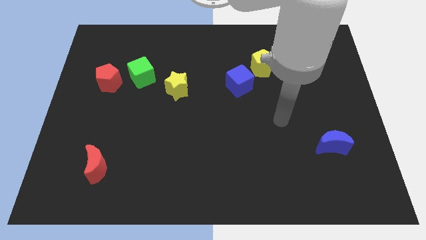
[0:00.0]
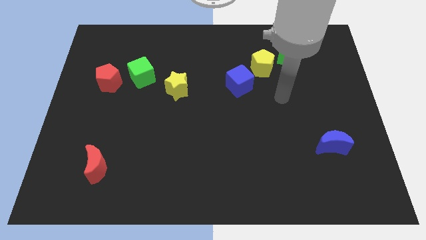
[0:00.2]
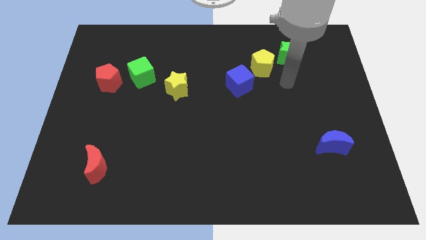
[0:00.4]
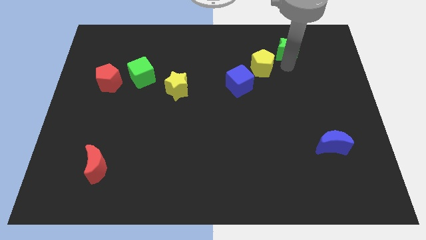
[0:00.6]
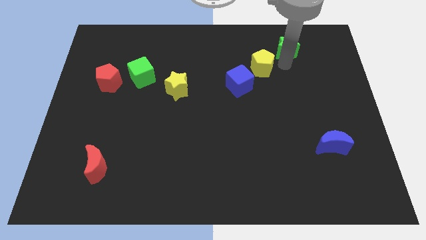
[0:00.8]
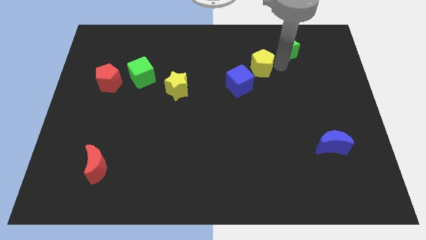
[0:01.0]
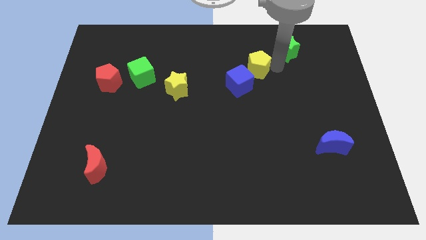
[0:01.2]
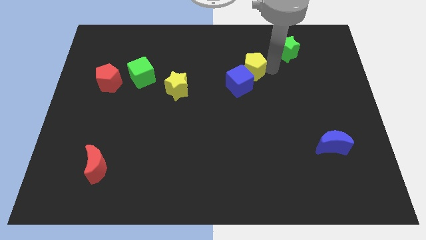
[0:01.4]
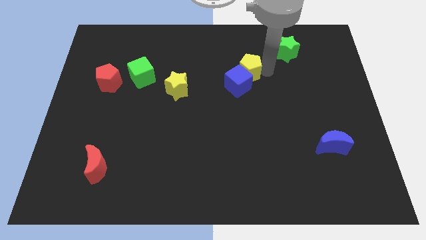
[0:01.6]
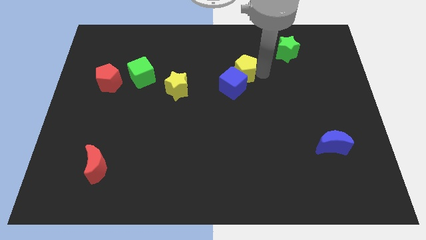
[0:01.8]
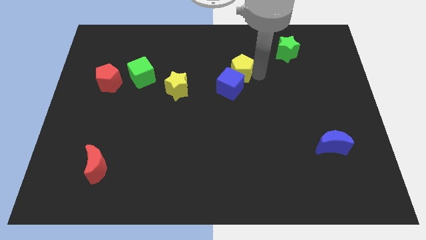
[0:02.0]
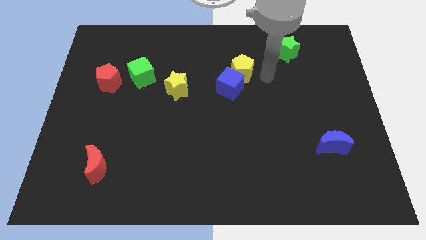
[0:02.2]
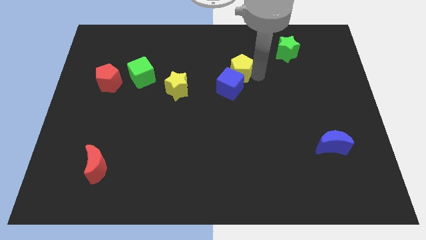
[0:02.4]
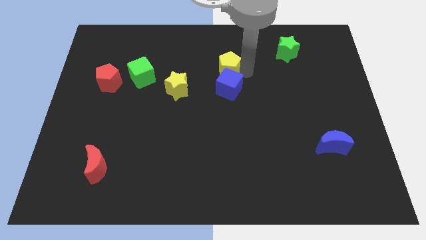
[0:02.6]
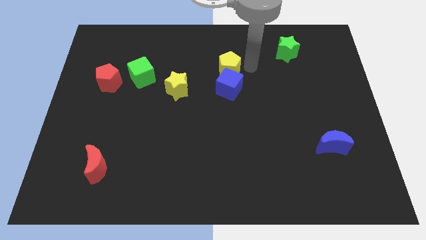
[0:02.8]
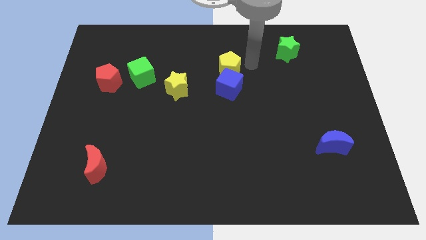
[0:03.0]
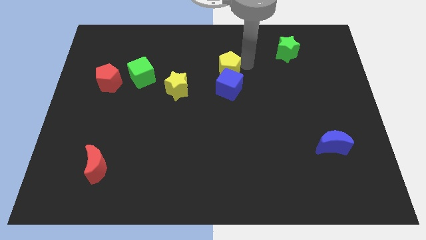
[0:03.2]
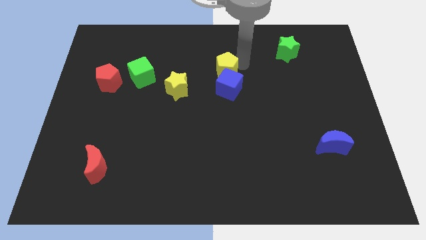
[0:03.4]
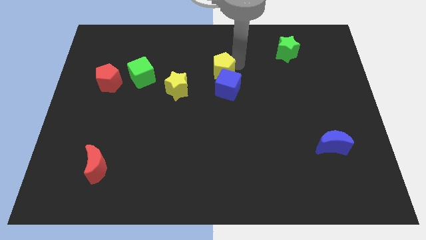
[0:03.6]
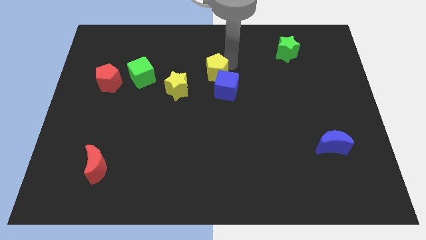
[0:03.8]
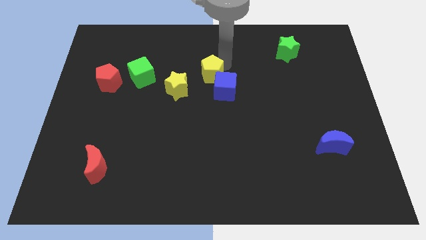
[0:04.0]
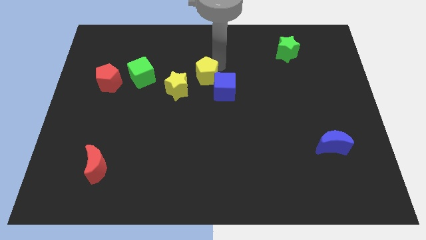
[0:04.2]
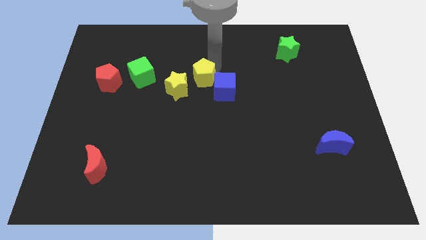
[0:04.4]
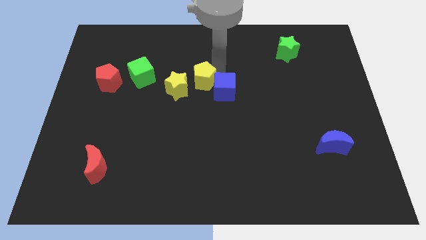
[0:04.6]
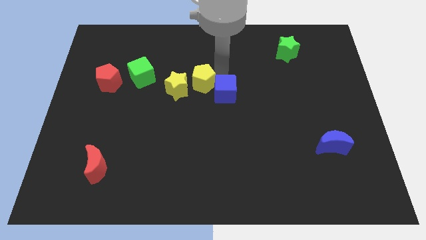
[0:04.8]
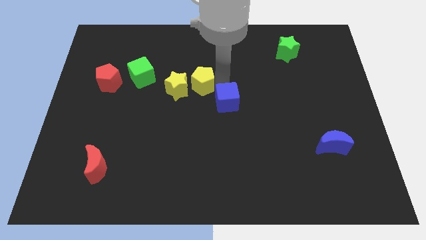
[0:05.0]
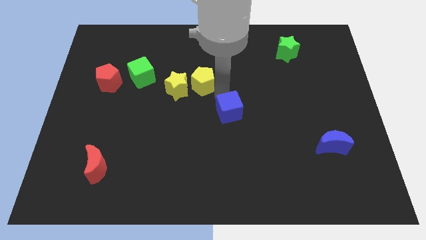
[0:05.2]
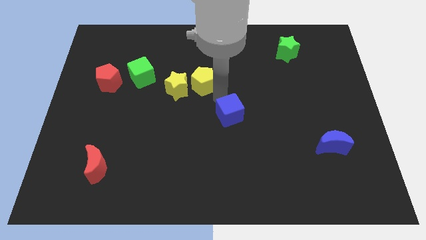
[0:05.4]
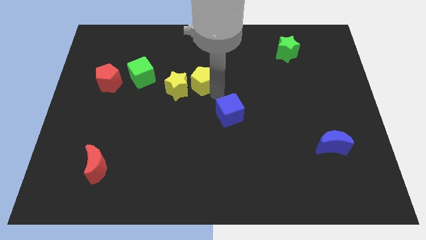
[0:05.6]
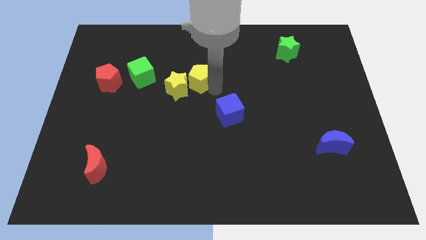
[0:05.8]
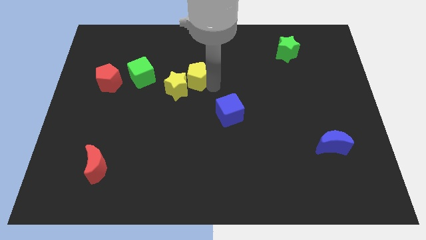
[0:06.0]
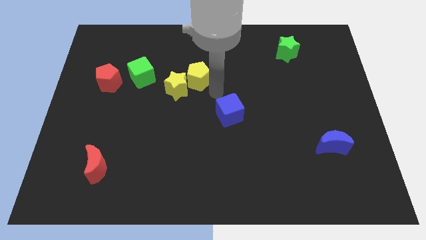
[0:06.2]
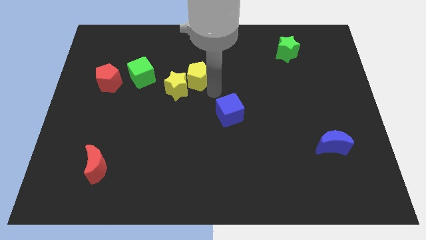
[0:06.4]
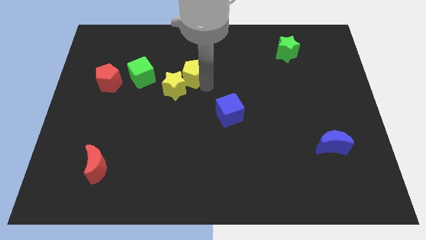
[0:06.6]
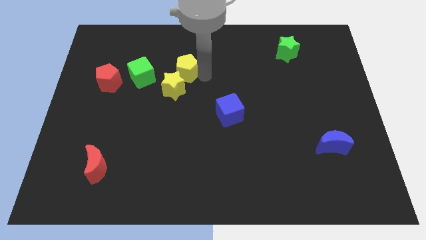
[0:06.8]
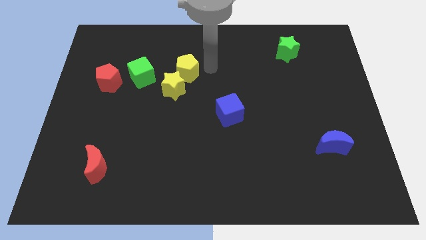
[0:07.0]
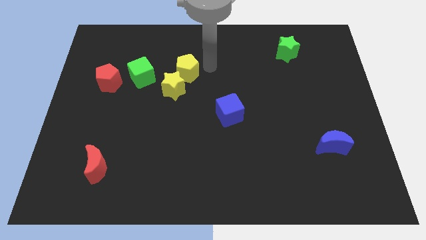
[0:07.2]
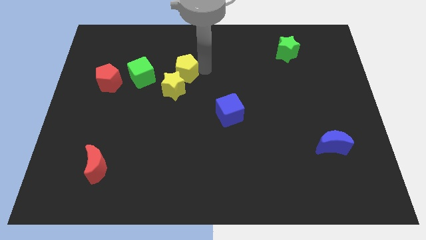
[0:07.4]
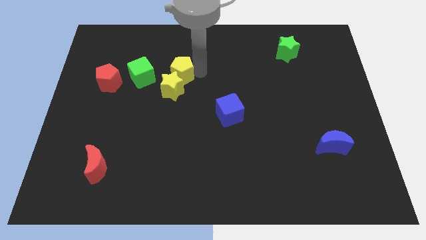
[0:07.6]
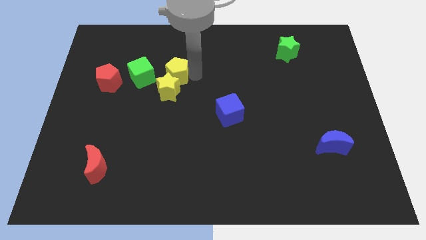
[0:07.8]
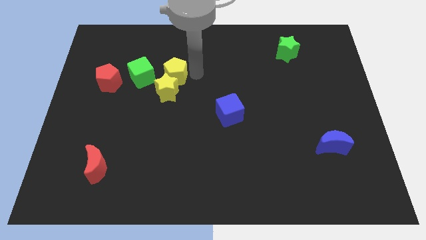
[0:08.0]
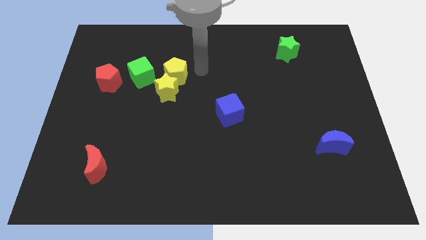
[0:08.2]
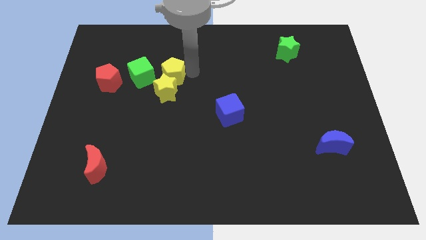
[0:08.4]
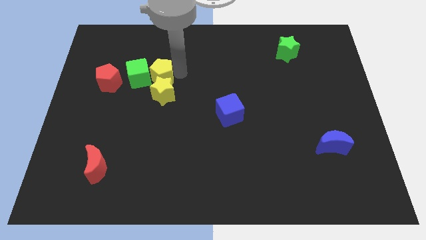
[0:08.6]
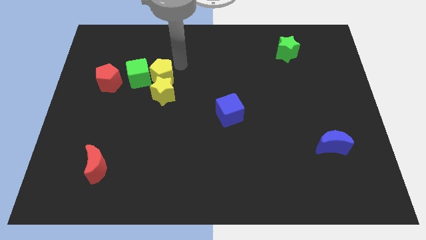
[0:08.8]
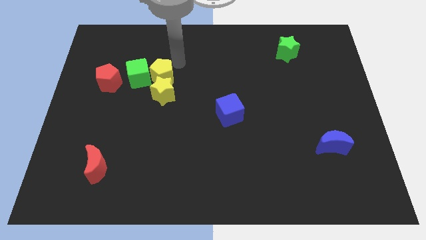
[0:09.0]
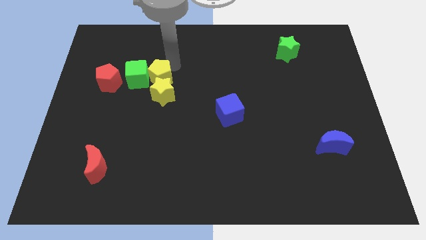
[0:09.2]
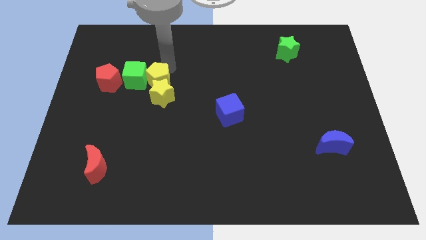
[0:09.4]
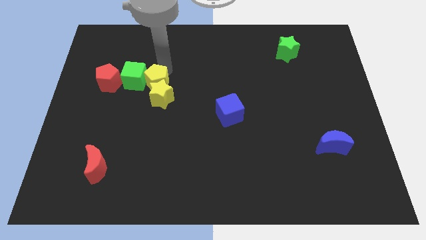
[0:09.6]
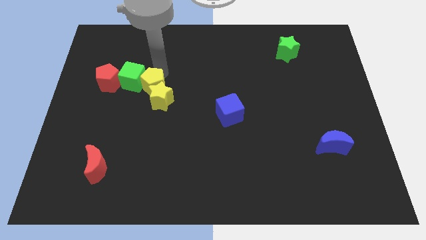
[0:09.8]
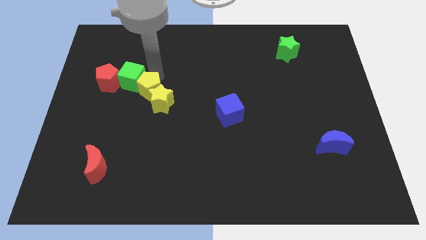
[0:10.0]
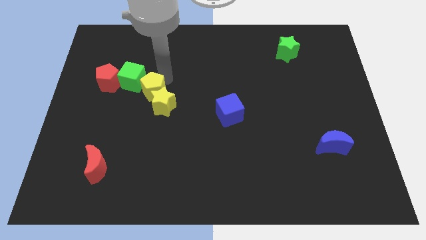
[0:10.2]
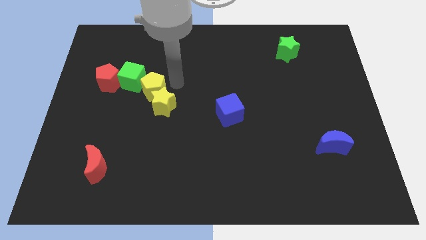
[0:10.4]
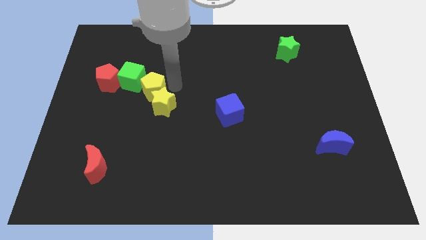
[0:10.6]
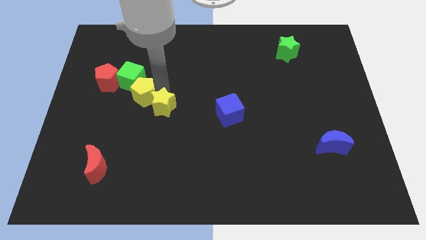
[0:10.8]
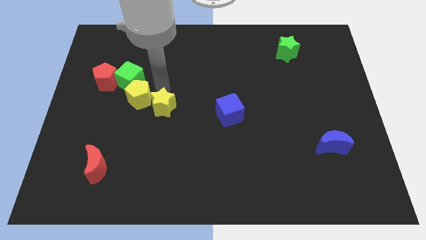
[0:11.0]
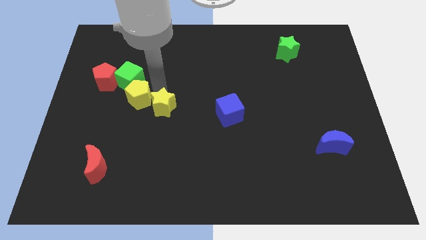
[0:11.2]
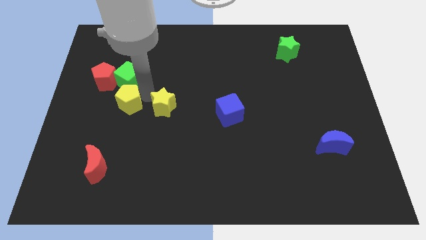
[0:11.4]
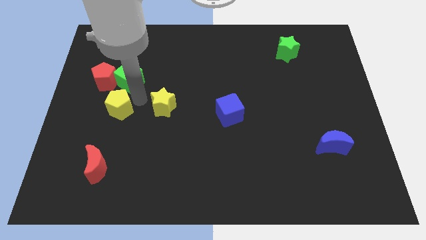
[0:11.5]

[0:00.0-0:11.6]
push the yellow pentagon to the bottom side of the red pentagon

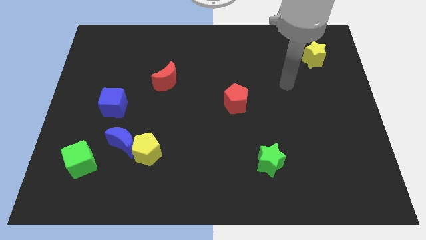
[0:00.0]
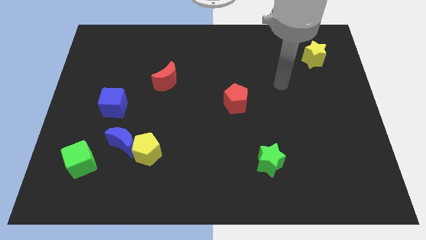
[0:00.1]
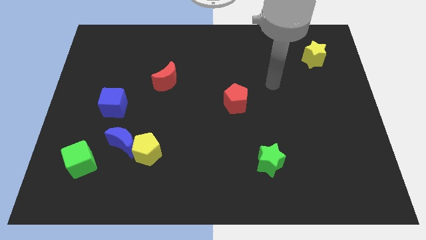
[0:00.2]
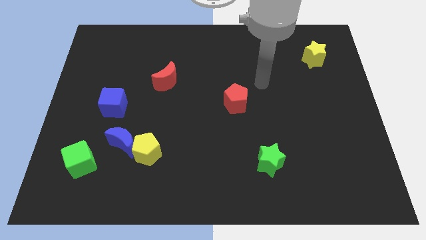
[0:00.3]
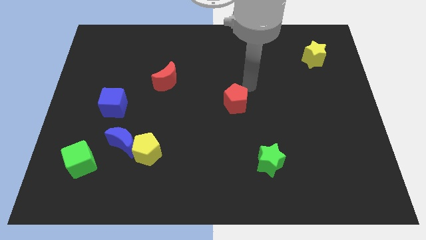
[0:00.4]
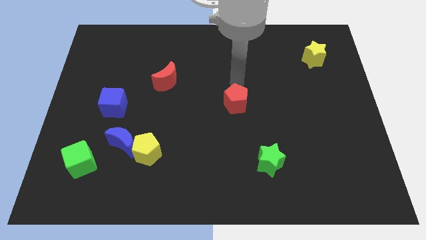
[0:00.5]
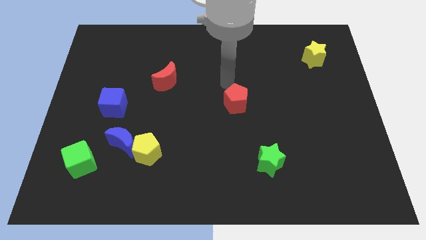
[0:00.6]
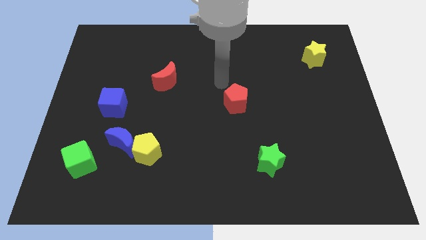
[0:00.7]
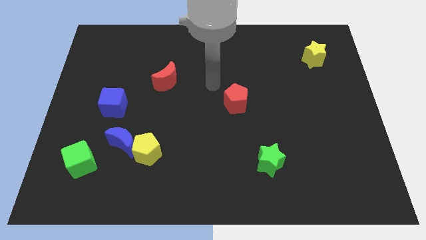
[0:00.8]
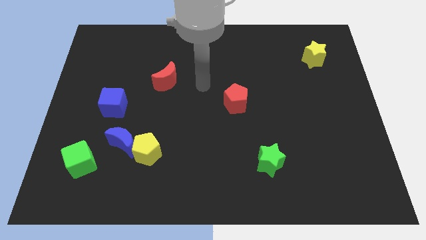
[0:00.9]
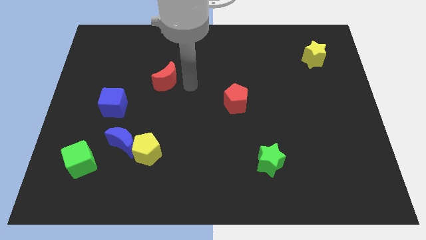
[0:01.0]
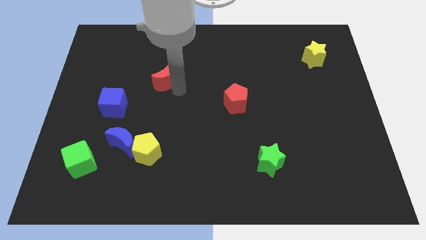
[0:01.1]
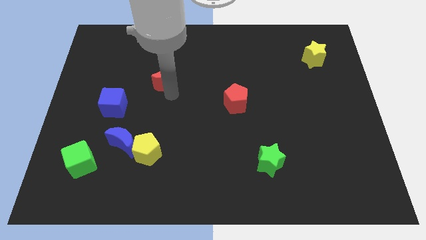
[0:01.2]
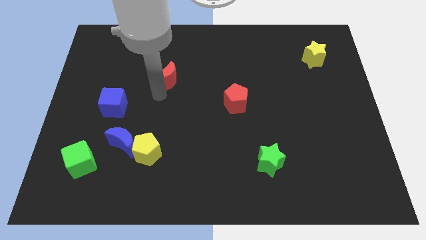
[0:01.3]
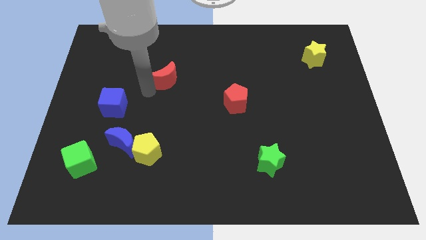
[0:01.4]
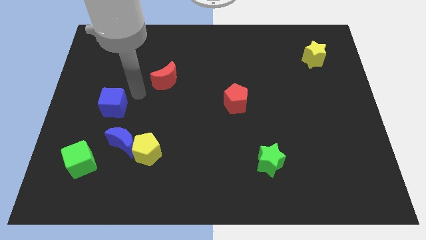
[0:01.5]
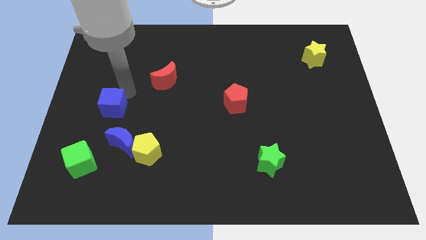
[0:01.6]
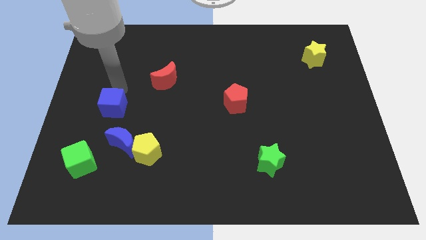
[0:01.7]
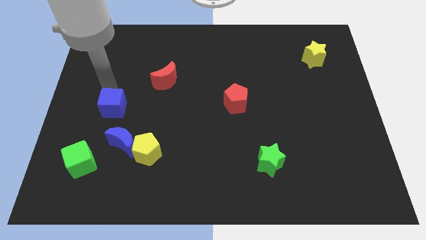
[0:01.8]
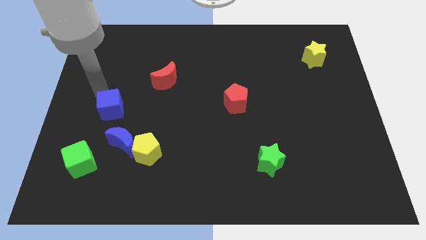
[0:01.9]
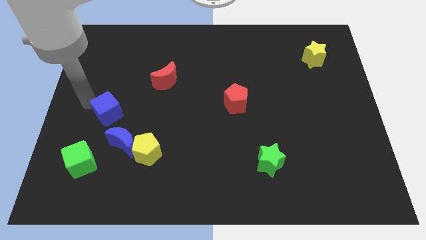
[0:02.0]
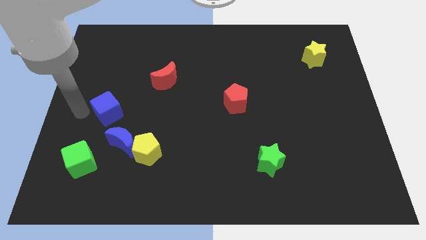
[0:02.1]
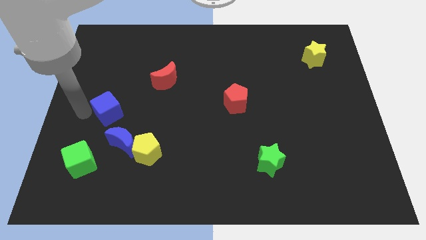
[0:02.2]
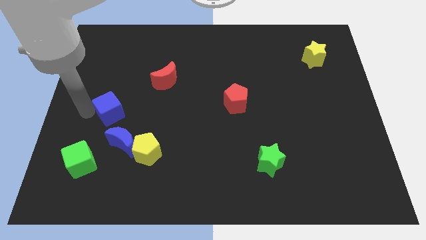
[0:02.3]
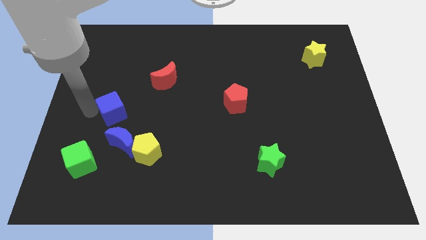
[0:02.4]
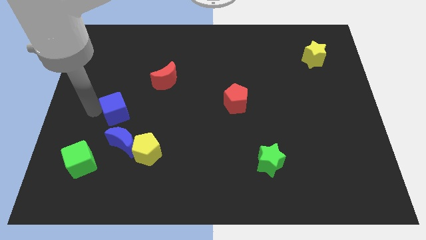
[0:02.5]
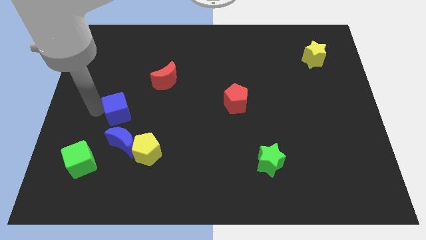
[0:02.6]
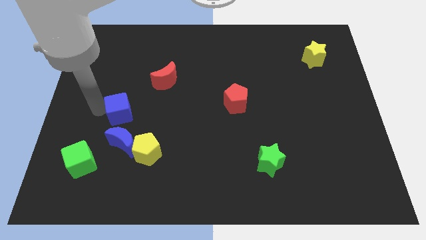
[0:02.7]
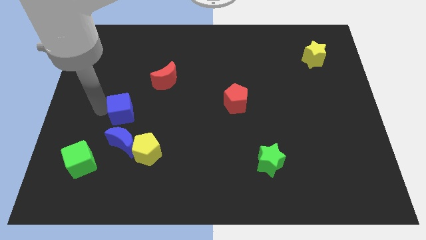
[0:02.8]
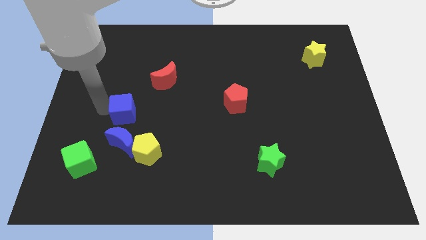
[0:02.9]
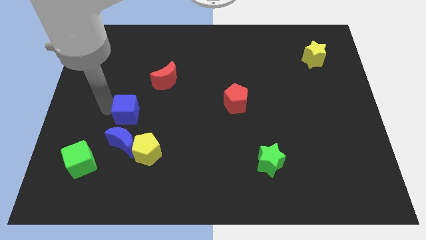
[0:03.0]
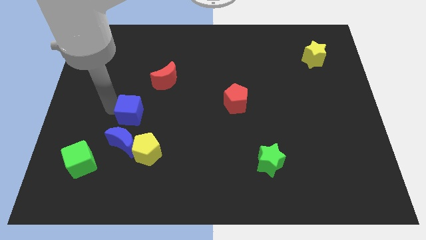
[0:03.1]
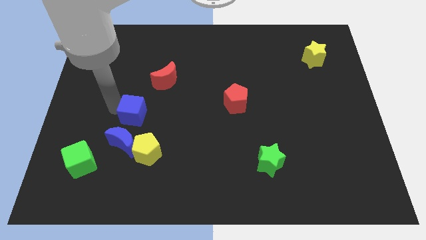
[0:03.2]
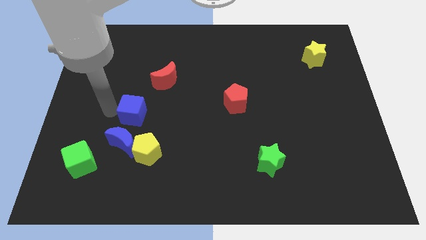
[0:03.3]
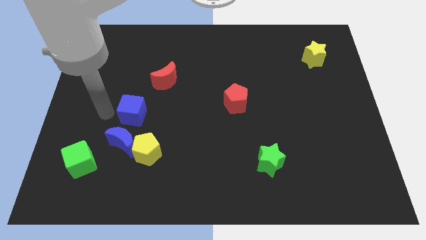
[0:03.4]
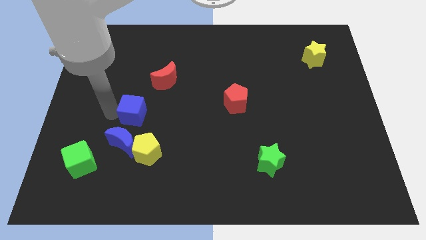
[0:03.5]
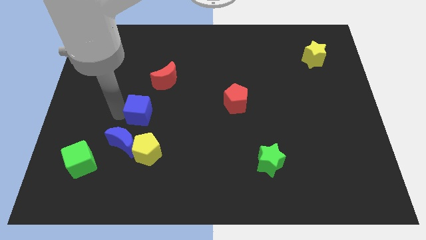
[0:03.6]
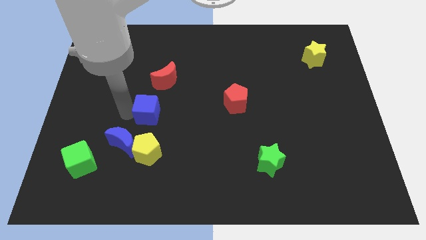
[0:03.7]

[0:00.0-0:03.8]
put the blue cube to the bottom of the red moon
